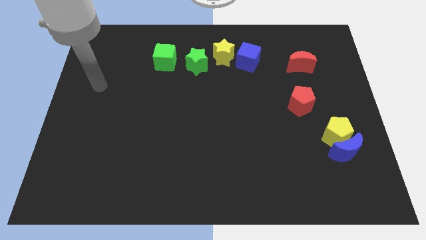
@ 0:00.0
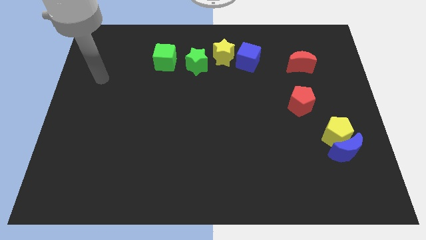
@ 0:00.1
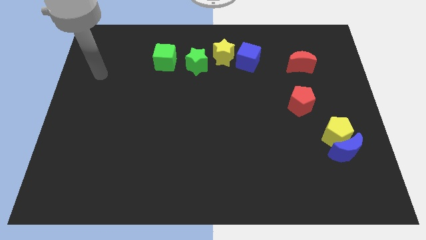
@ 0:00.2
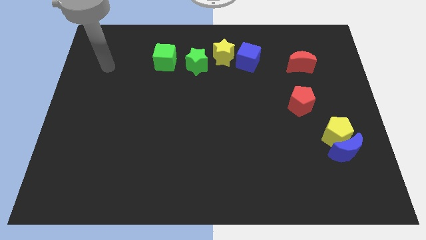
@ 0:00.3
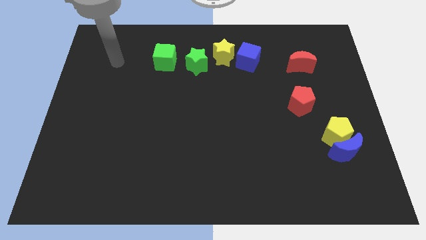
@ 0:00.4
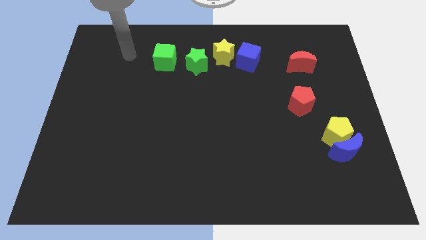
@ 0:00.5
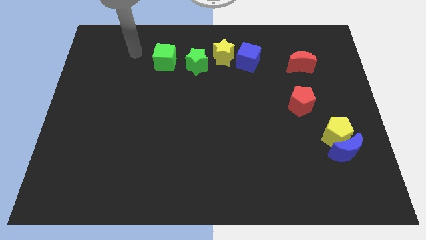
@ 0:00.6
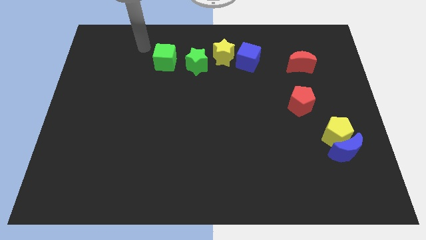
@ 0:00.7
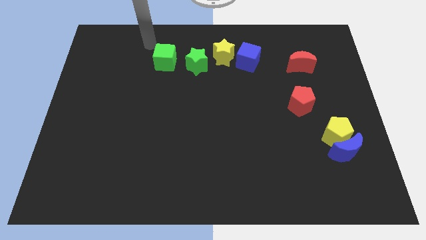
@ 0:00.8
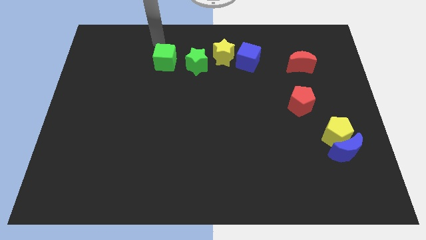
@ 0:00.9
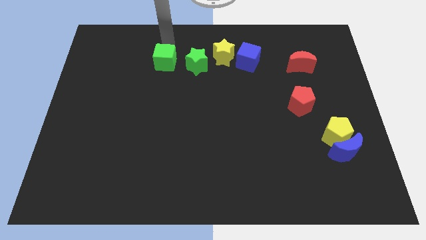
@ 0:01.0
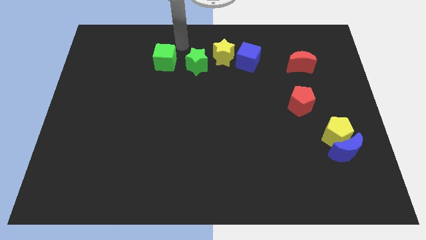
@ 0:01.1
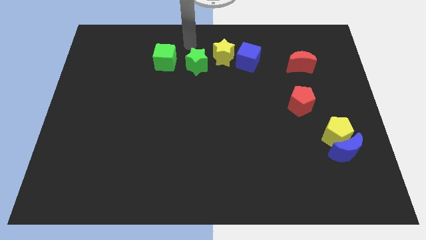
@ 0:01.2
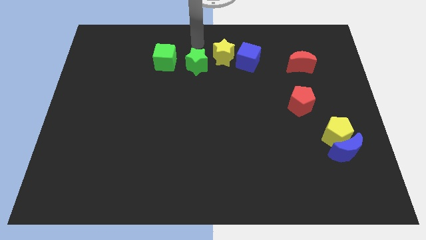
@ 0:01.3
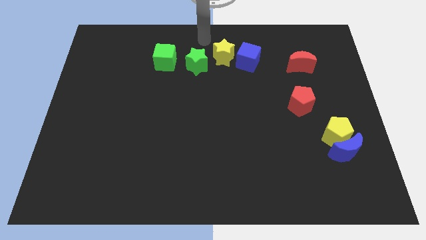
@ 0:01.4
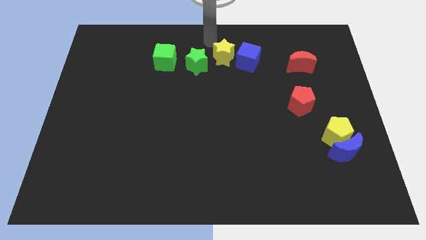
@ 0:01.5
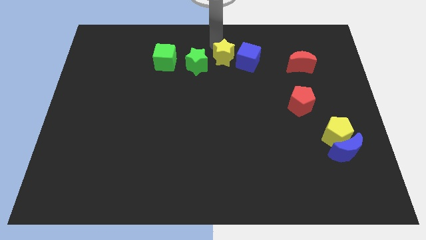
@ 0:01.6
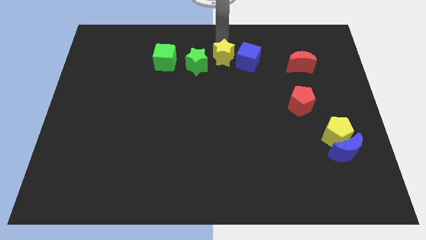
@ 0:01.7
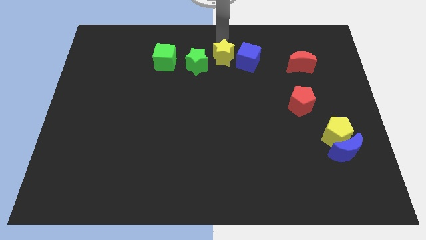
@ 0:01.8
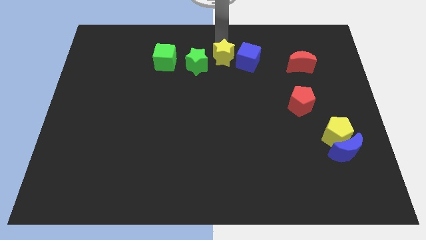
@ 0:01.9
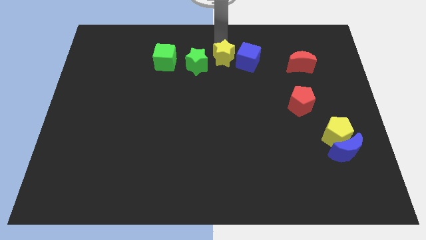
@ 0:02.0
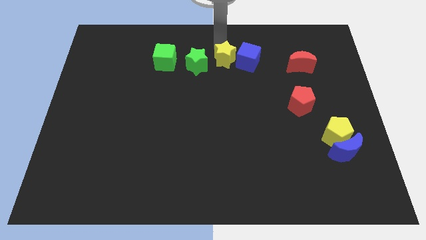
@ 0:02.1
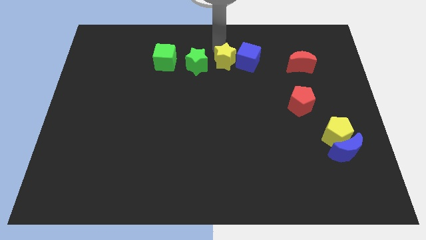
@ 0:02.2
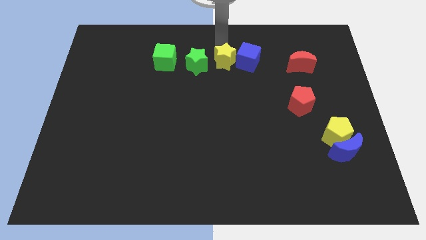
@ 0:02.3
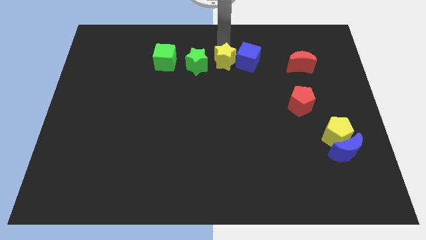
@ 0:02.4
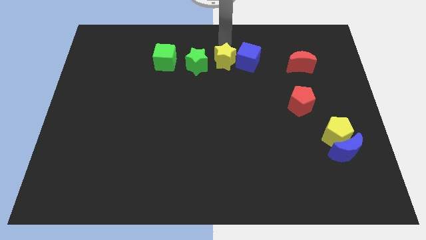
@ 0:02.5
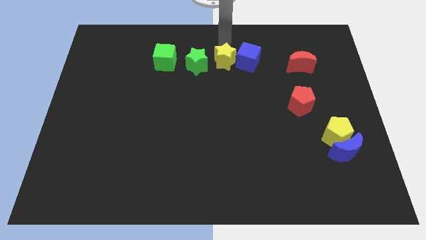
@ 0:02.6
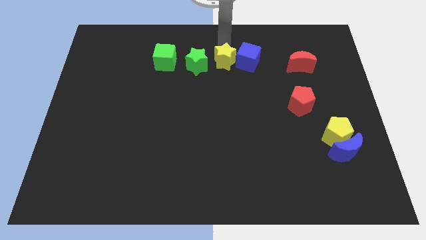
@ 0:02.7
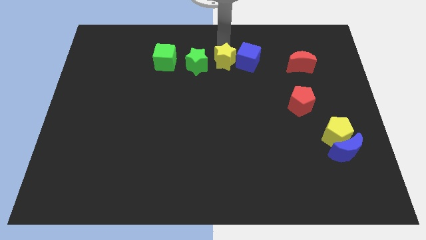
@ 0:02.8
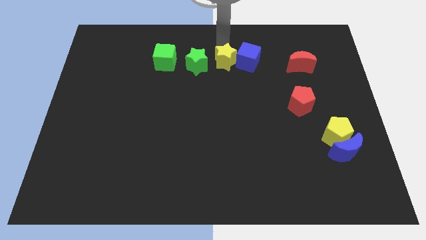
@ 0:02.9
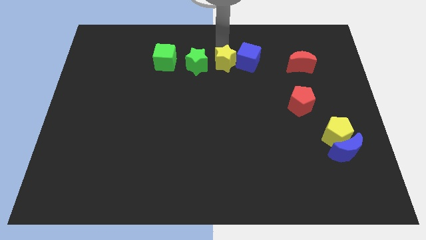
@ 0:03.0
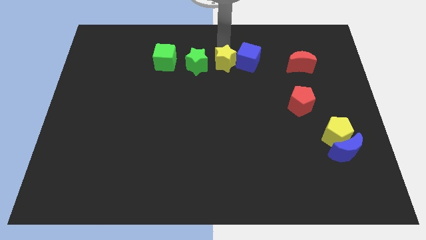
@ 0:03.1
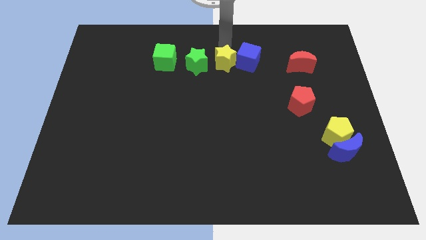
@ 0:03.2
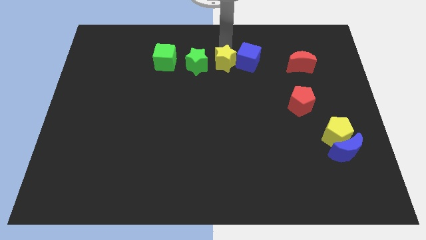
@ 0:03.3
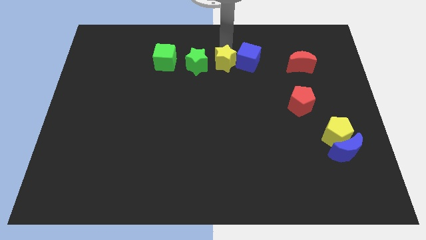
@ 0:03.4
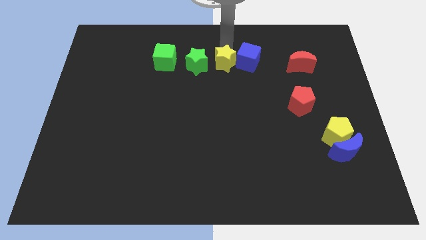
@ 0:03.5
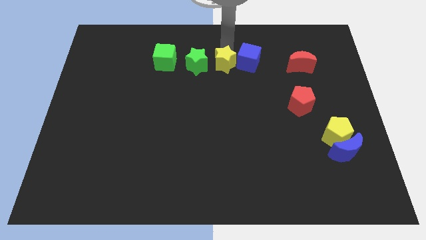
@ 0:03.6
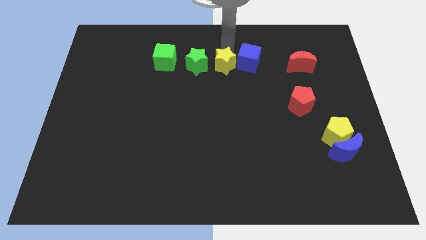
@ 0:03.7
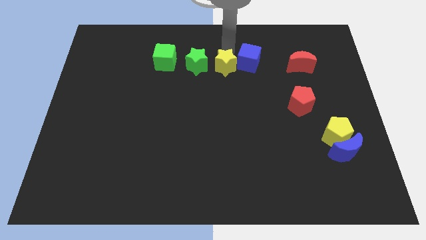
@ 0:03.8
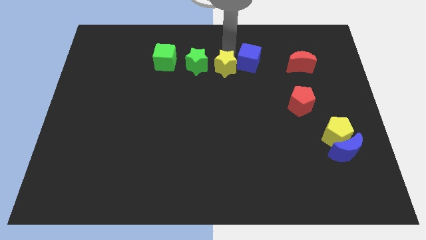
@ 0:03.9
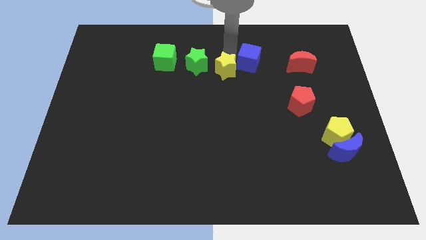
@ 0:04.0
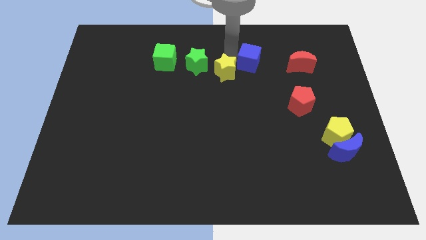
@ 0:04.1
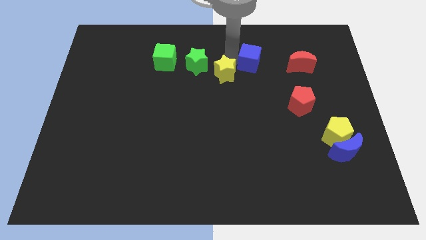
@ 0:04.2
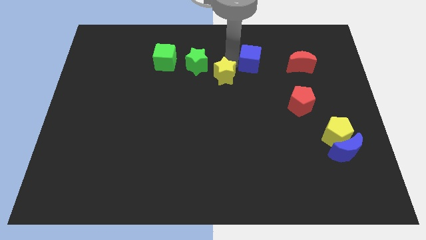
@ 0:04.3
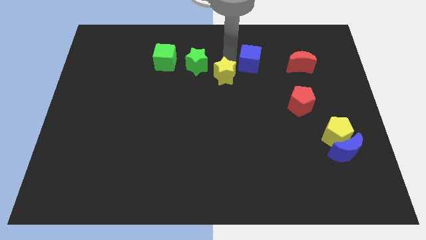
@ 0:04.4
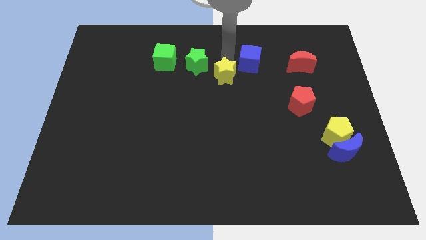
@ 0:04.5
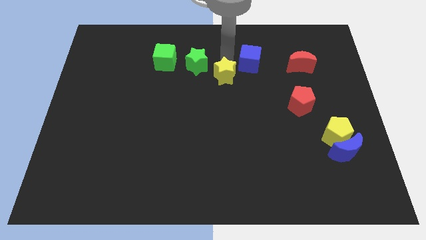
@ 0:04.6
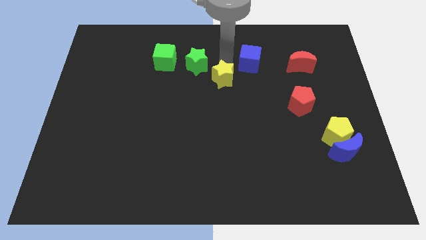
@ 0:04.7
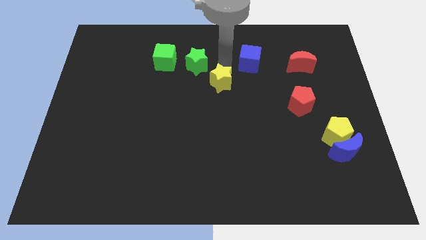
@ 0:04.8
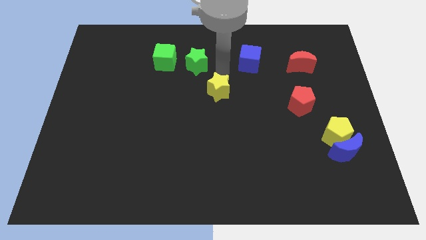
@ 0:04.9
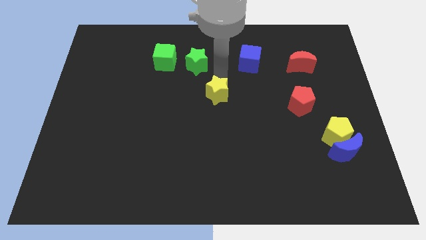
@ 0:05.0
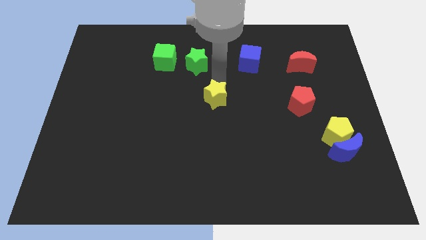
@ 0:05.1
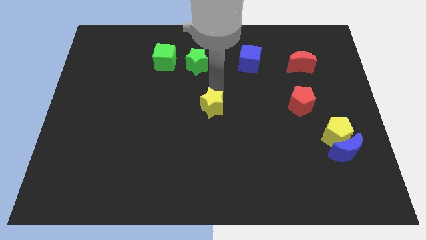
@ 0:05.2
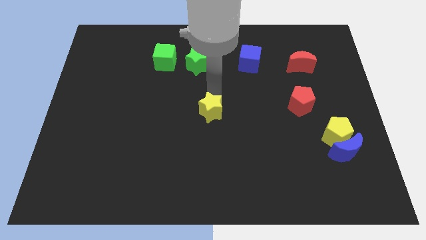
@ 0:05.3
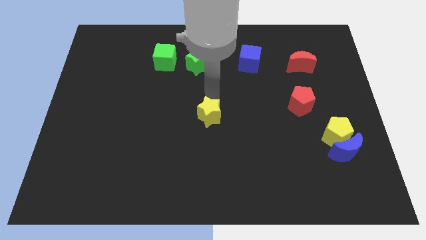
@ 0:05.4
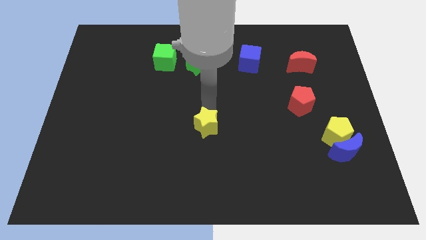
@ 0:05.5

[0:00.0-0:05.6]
slide the yellow star down

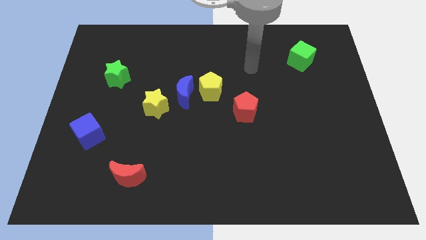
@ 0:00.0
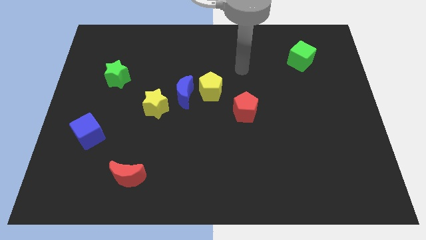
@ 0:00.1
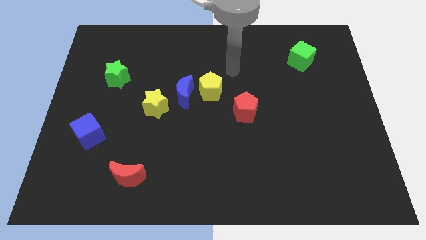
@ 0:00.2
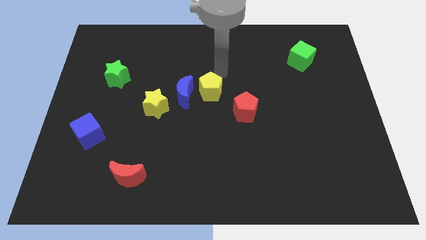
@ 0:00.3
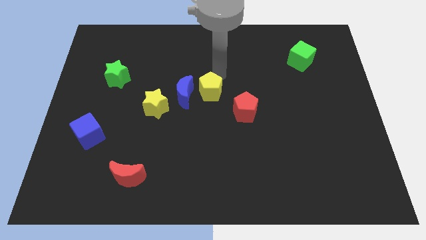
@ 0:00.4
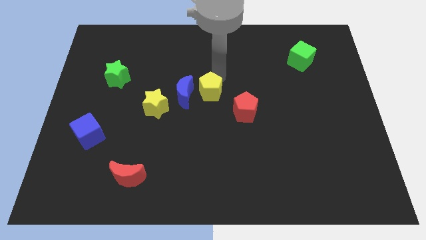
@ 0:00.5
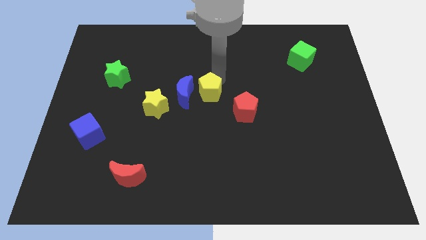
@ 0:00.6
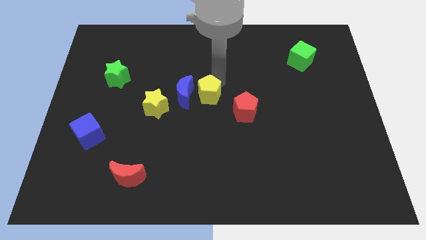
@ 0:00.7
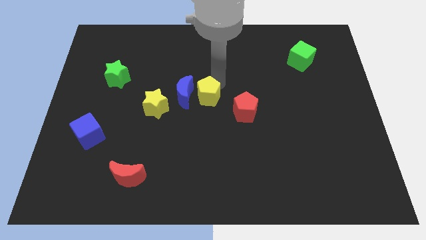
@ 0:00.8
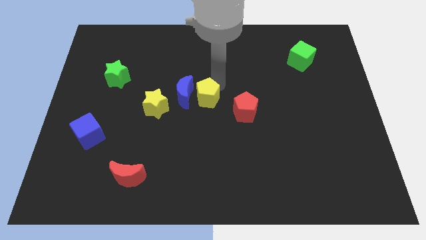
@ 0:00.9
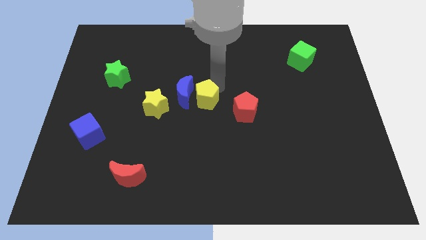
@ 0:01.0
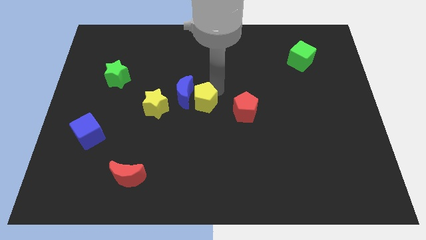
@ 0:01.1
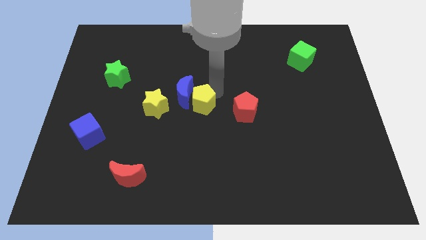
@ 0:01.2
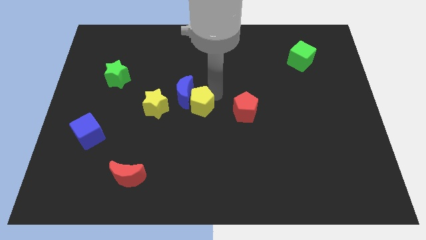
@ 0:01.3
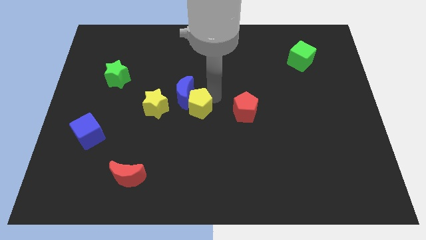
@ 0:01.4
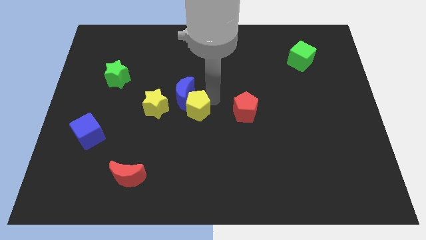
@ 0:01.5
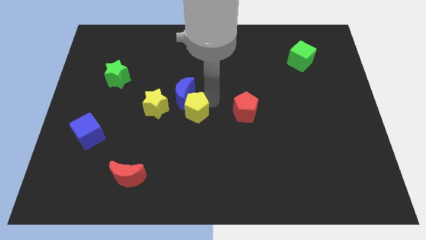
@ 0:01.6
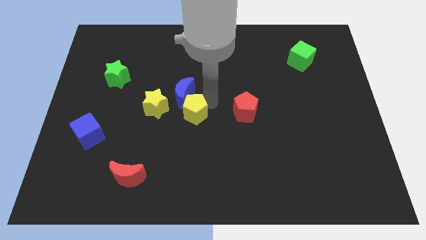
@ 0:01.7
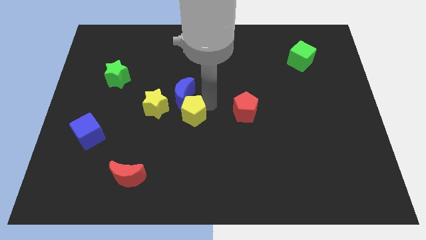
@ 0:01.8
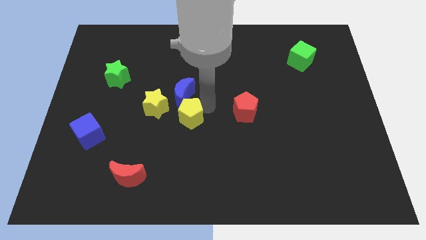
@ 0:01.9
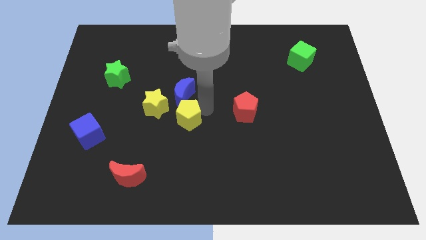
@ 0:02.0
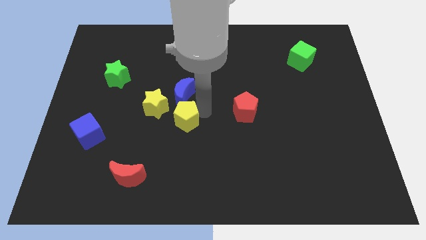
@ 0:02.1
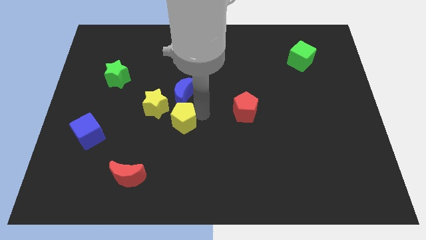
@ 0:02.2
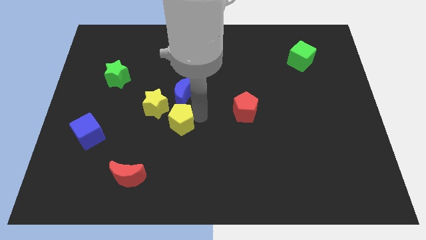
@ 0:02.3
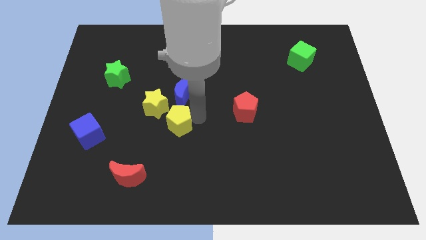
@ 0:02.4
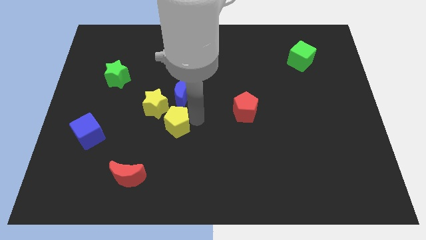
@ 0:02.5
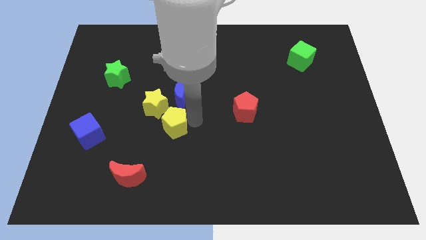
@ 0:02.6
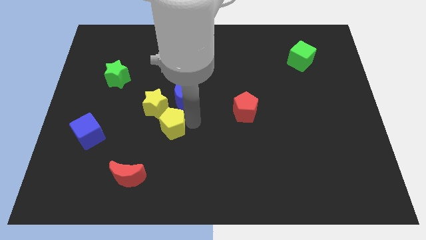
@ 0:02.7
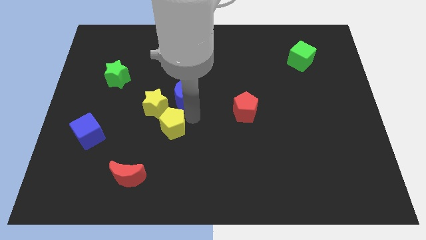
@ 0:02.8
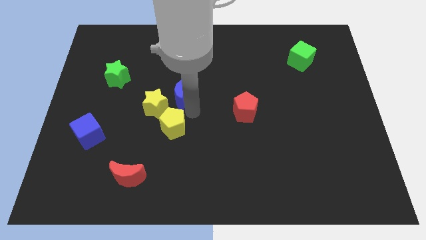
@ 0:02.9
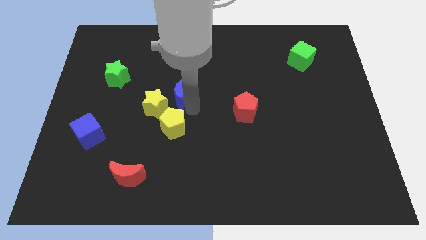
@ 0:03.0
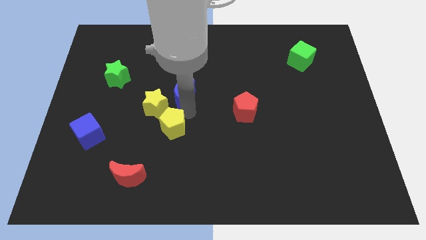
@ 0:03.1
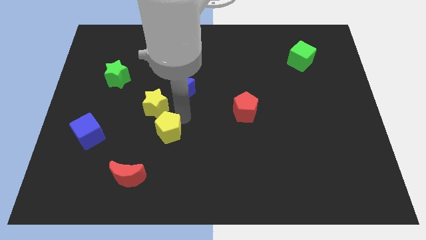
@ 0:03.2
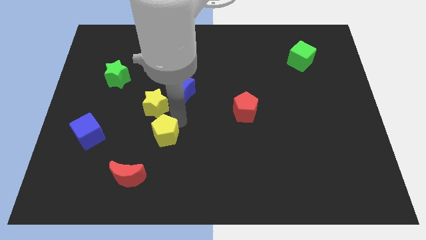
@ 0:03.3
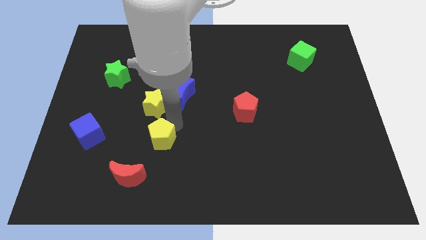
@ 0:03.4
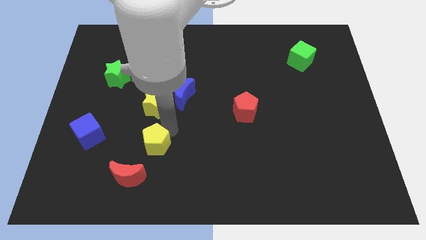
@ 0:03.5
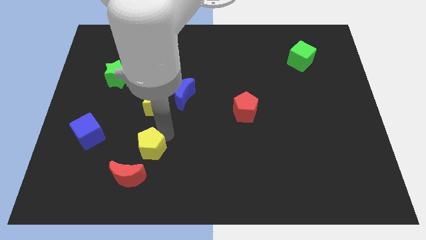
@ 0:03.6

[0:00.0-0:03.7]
move the yellow pentagon downwards and to the left diagonally
